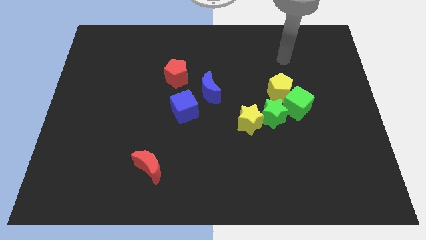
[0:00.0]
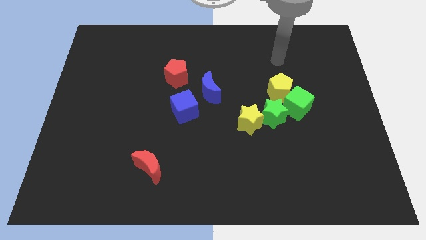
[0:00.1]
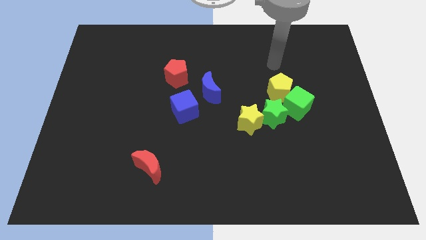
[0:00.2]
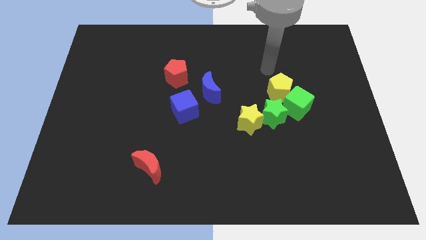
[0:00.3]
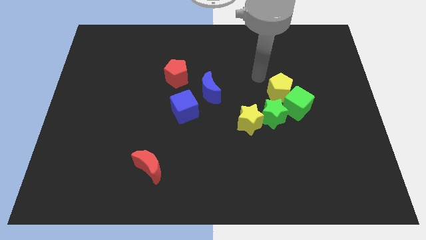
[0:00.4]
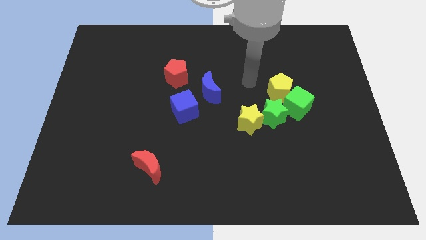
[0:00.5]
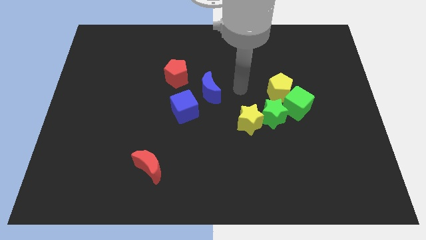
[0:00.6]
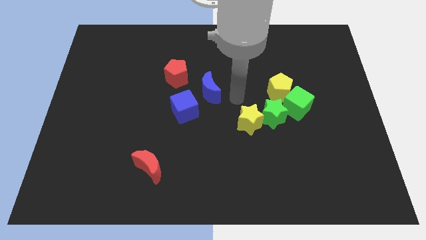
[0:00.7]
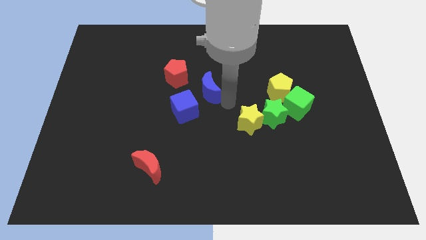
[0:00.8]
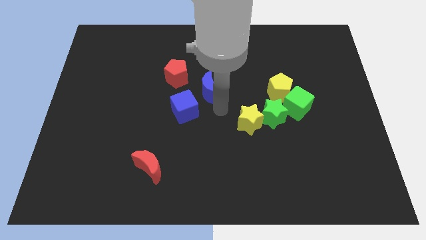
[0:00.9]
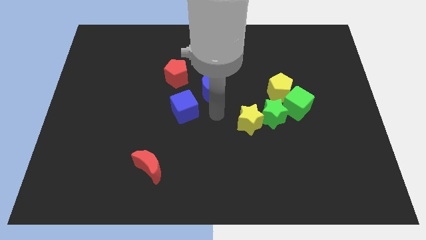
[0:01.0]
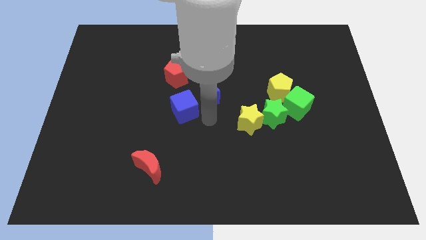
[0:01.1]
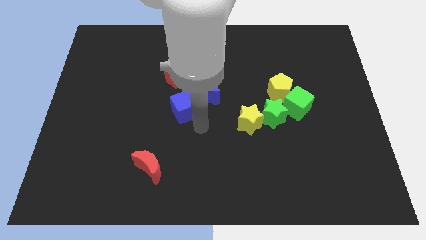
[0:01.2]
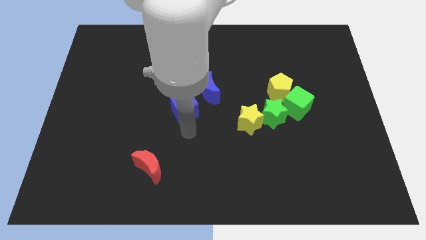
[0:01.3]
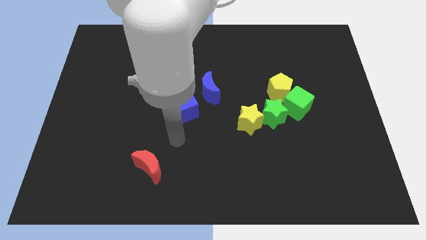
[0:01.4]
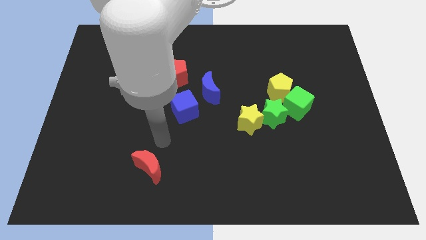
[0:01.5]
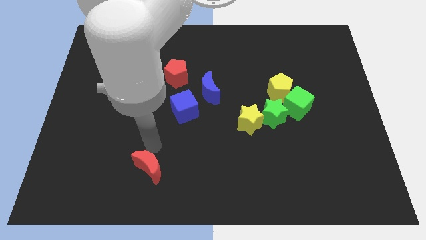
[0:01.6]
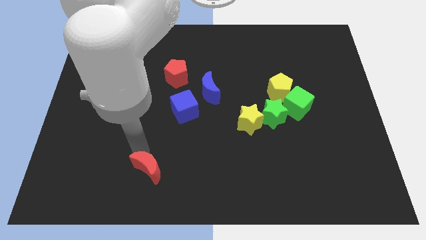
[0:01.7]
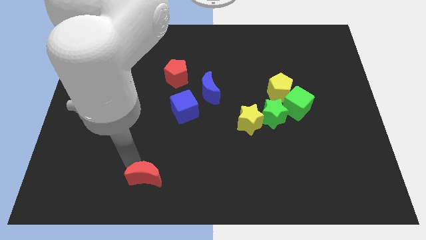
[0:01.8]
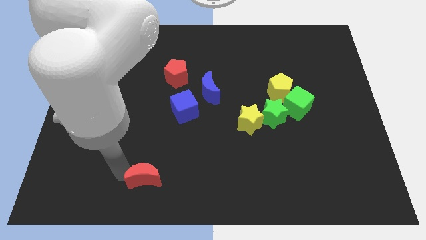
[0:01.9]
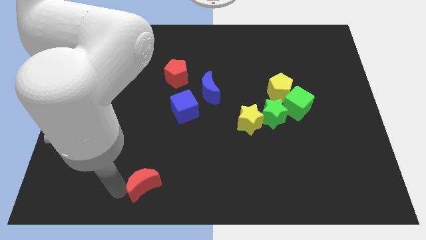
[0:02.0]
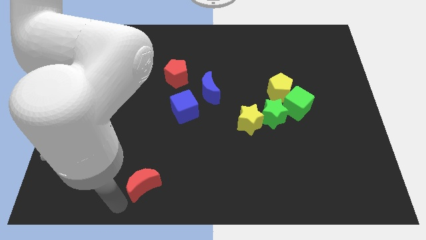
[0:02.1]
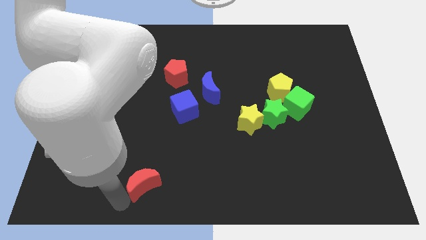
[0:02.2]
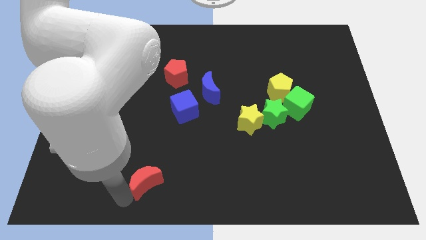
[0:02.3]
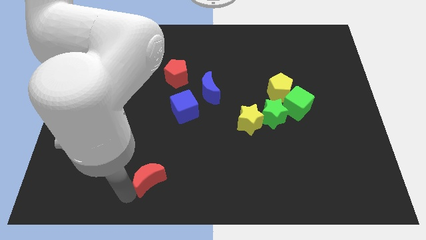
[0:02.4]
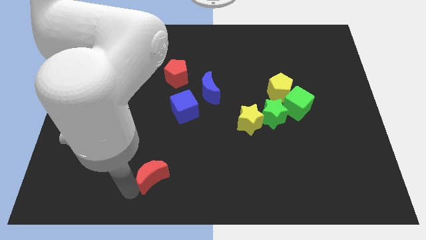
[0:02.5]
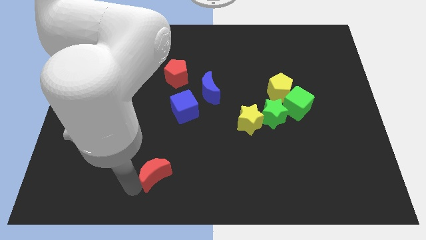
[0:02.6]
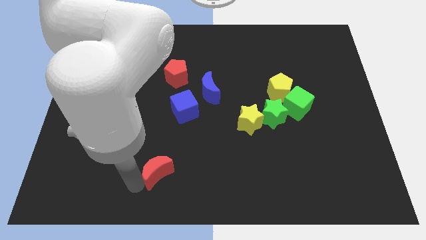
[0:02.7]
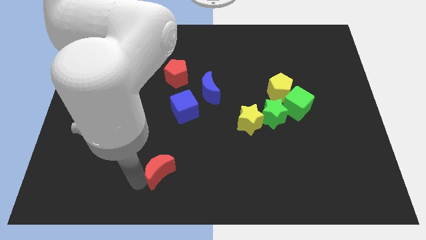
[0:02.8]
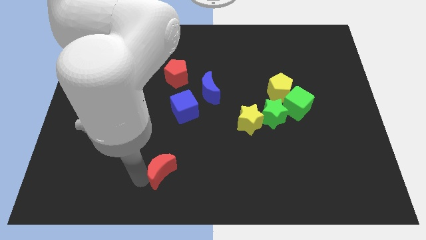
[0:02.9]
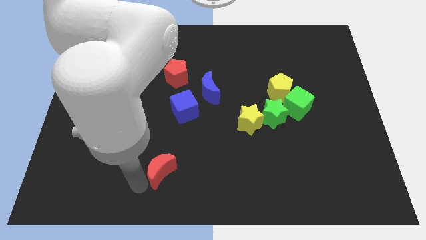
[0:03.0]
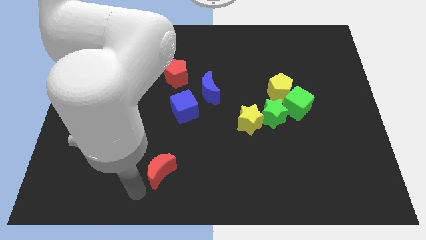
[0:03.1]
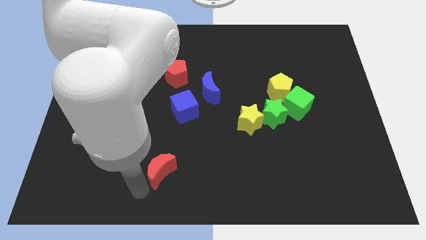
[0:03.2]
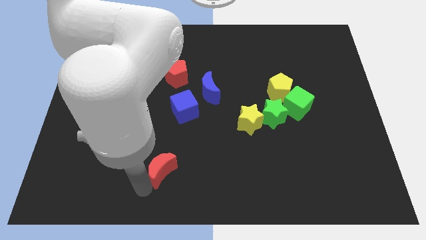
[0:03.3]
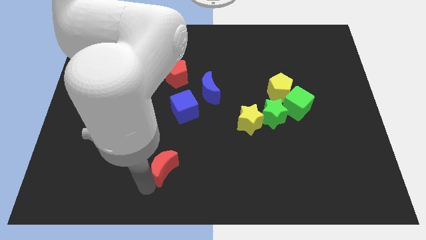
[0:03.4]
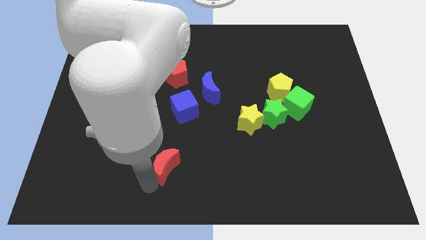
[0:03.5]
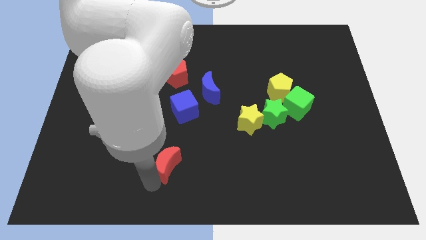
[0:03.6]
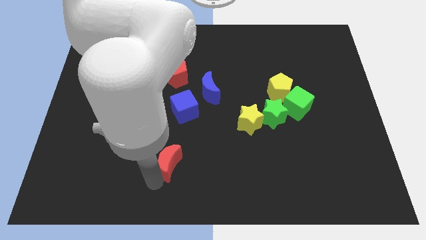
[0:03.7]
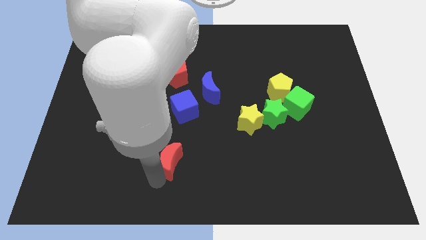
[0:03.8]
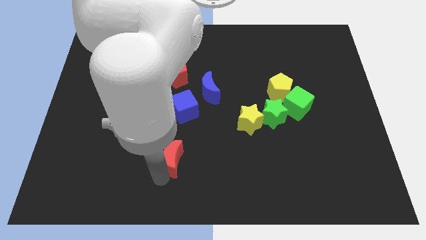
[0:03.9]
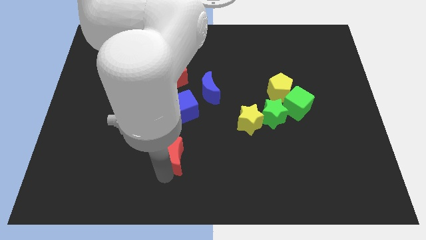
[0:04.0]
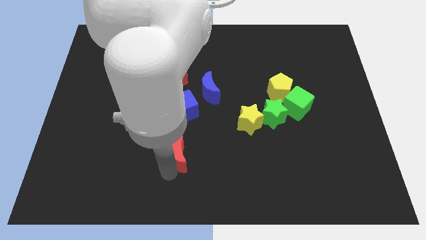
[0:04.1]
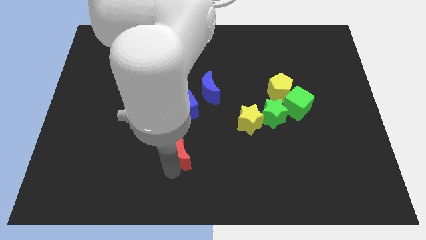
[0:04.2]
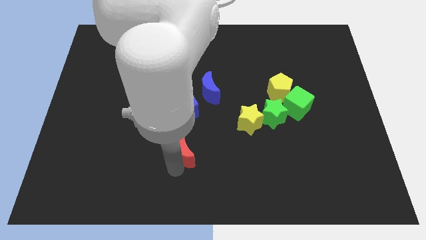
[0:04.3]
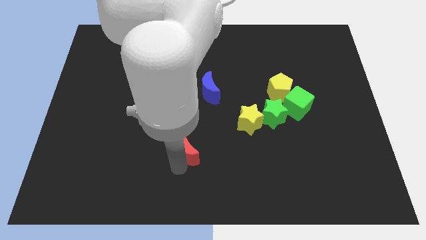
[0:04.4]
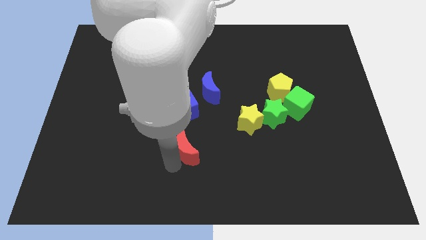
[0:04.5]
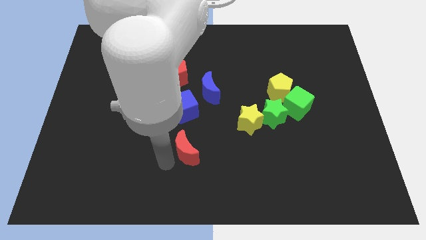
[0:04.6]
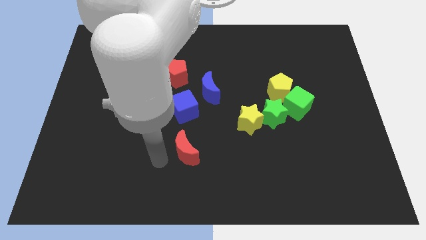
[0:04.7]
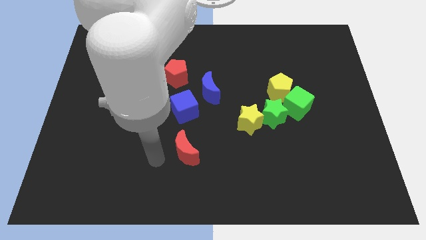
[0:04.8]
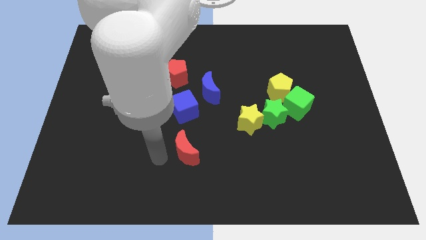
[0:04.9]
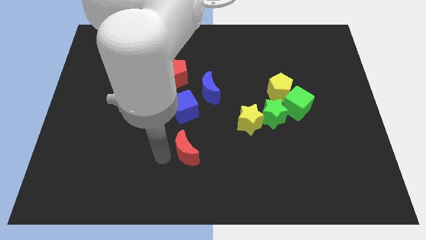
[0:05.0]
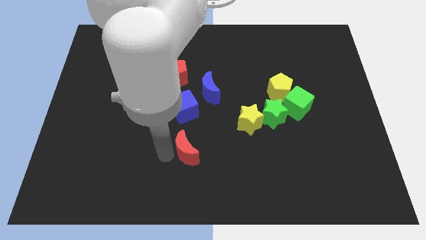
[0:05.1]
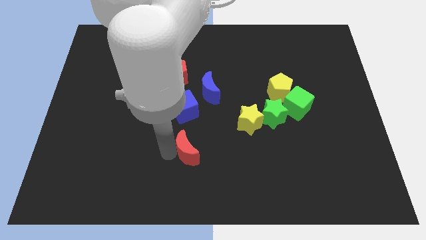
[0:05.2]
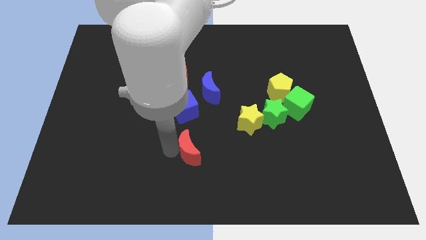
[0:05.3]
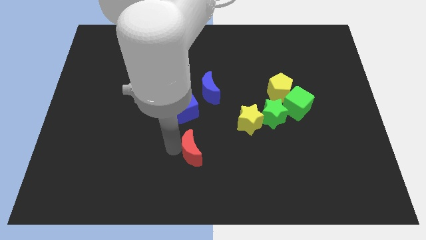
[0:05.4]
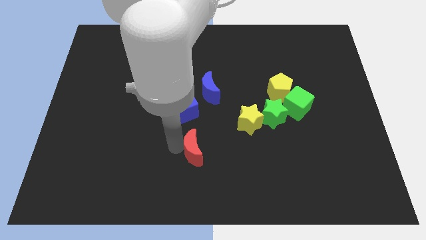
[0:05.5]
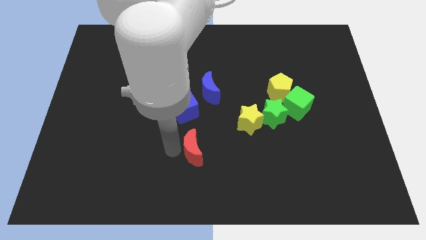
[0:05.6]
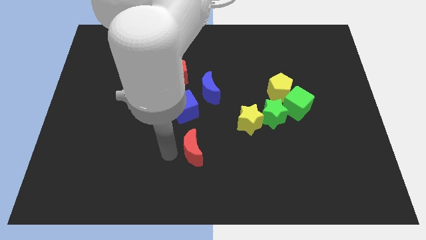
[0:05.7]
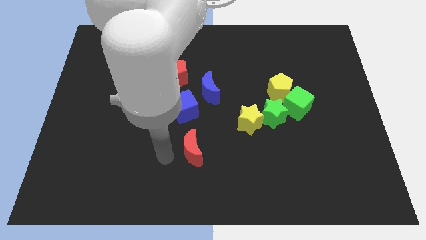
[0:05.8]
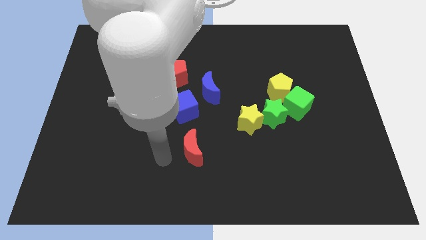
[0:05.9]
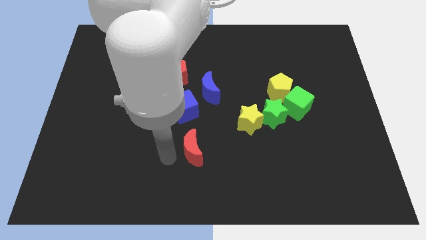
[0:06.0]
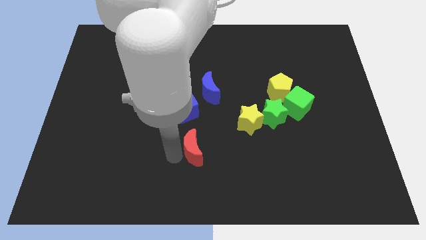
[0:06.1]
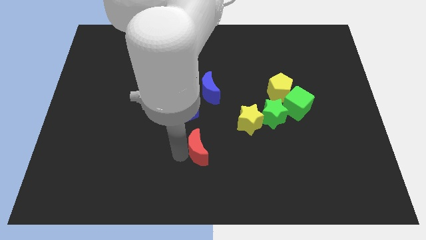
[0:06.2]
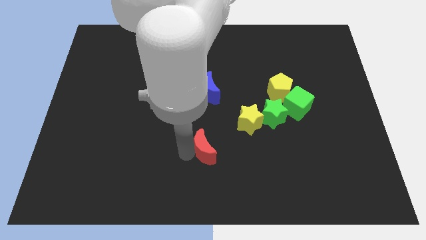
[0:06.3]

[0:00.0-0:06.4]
move the red moon to the bottom left side of the yellow star
